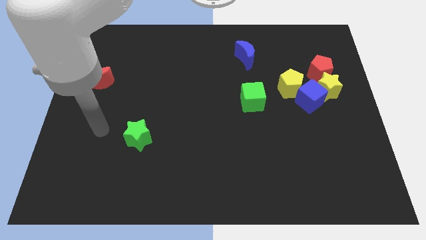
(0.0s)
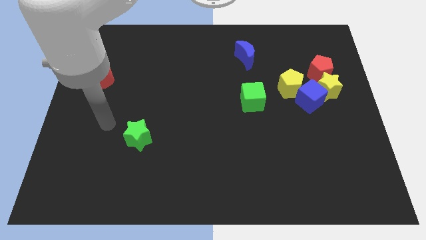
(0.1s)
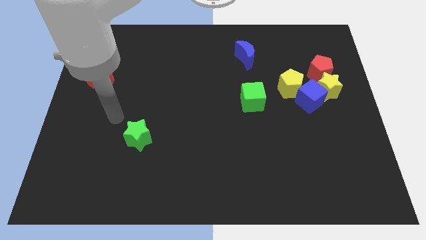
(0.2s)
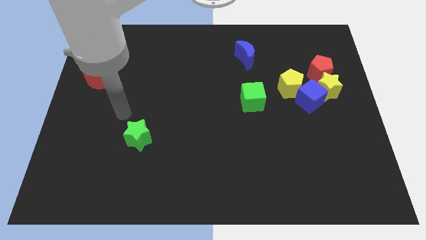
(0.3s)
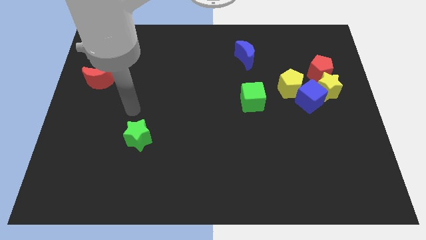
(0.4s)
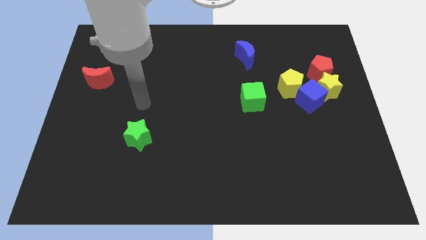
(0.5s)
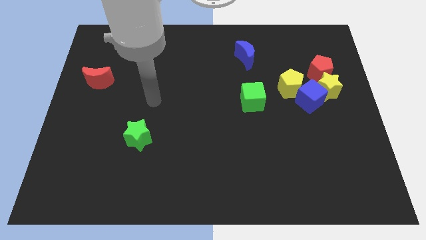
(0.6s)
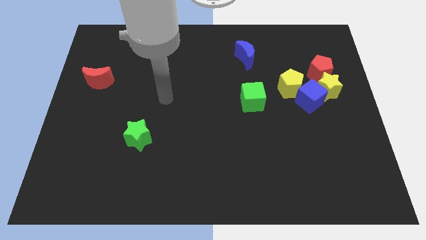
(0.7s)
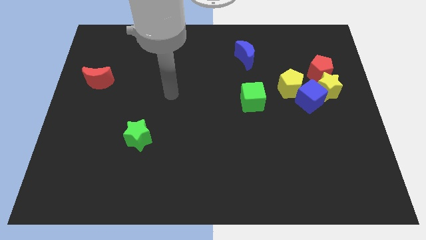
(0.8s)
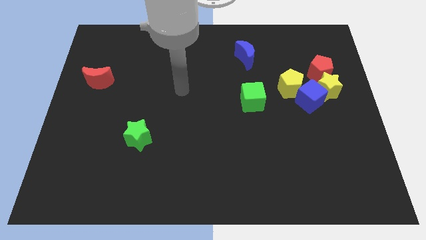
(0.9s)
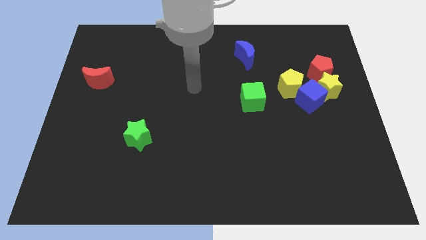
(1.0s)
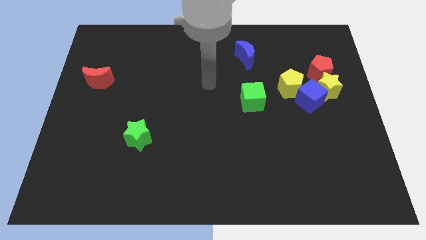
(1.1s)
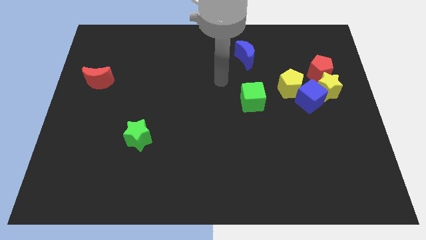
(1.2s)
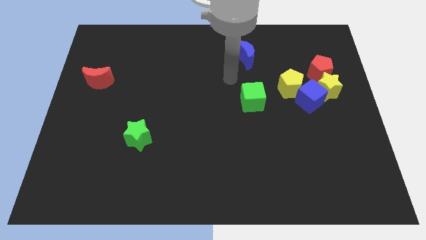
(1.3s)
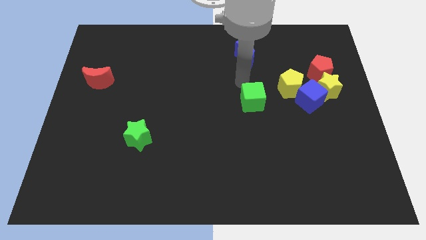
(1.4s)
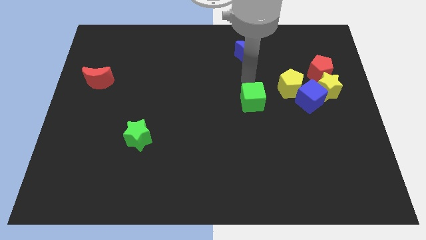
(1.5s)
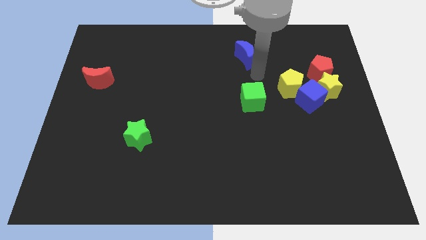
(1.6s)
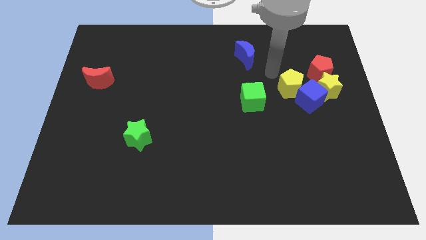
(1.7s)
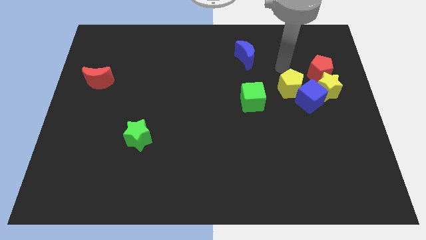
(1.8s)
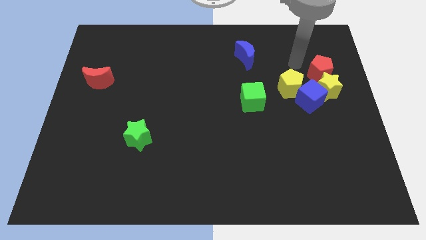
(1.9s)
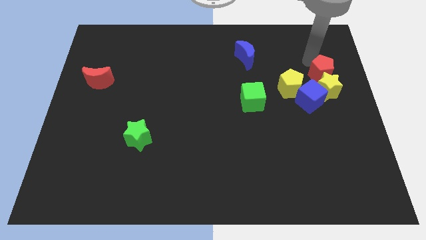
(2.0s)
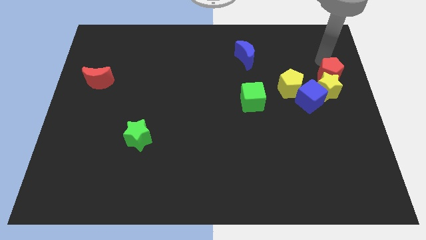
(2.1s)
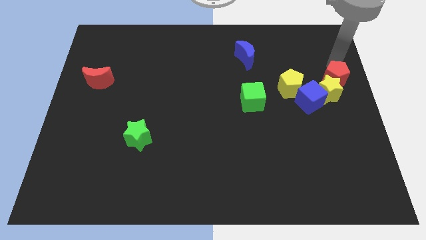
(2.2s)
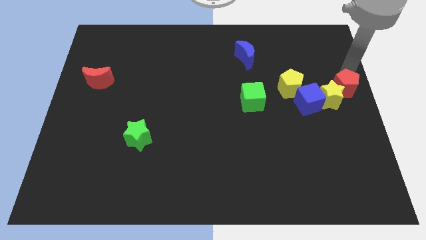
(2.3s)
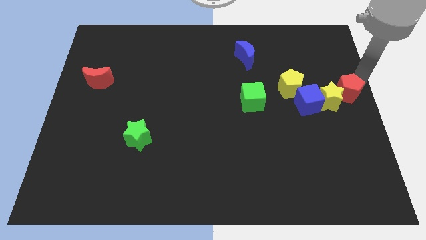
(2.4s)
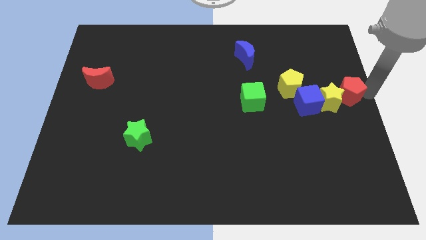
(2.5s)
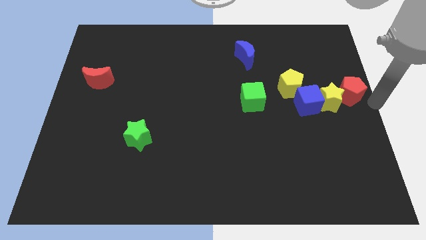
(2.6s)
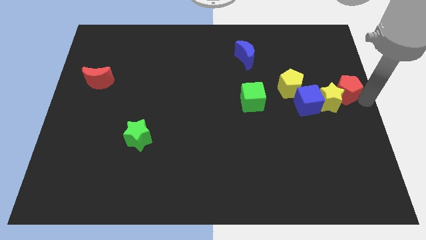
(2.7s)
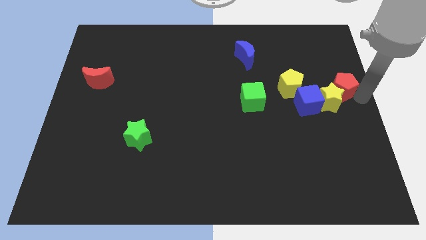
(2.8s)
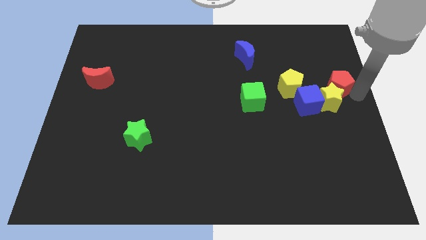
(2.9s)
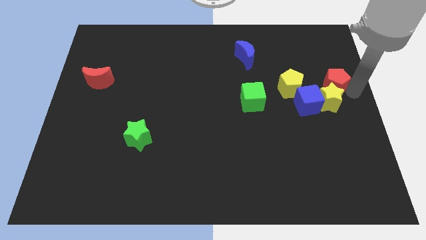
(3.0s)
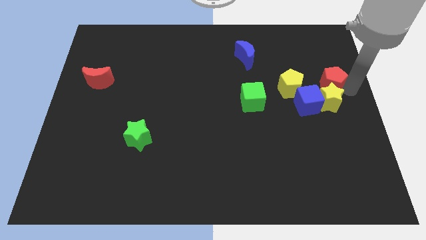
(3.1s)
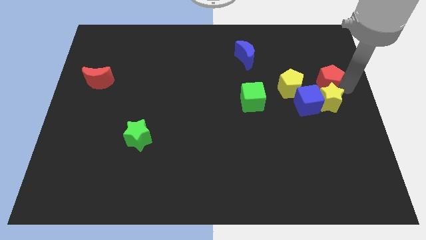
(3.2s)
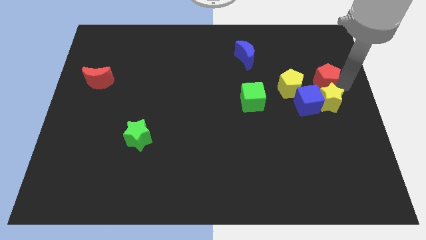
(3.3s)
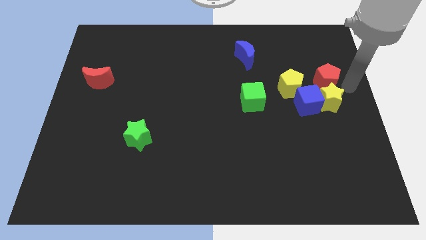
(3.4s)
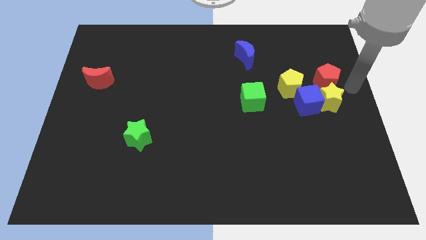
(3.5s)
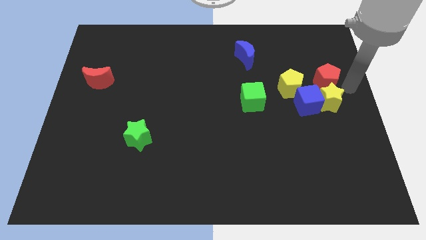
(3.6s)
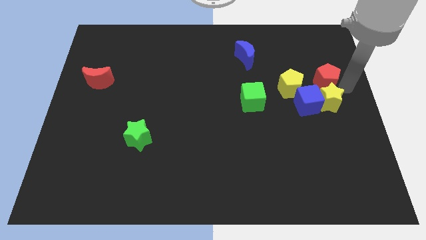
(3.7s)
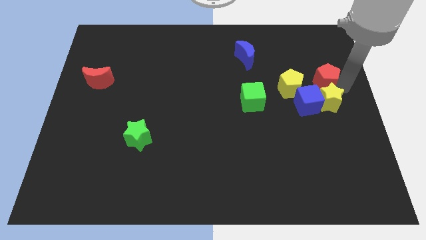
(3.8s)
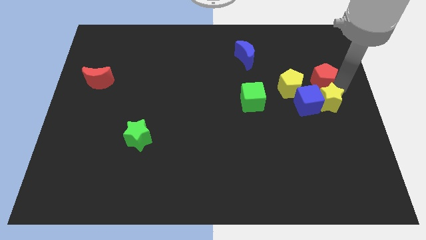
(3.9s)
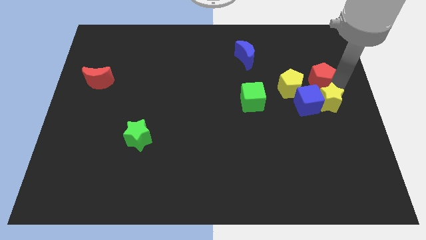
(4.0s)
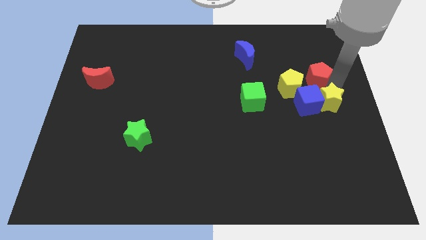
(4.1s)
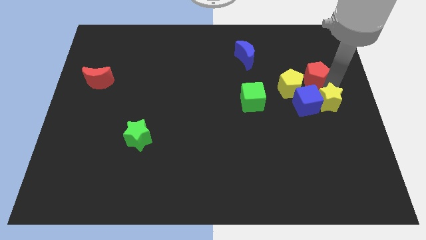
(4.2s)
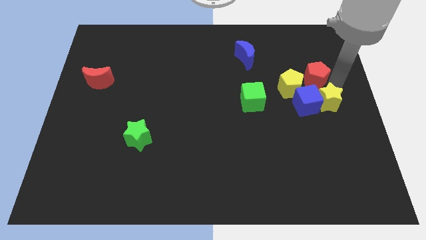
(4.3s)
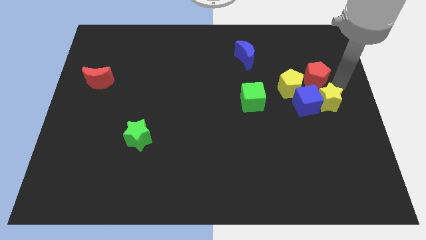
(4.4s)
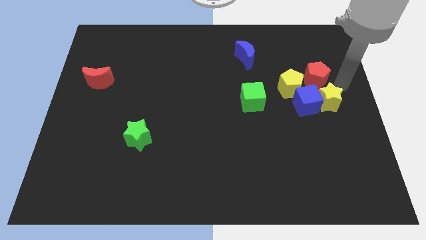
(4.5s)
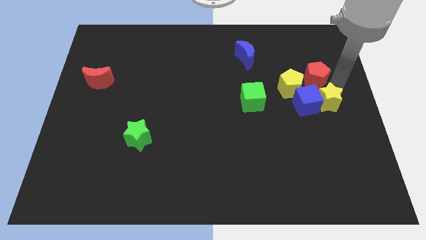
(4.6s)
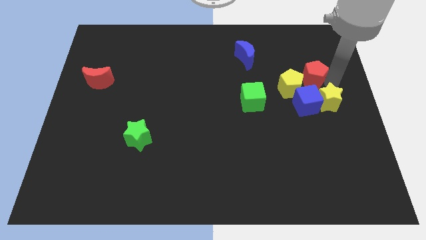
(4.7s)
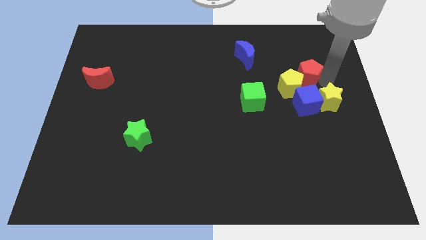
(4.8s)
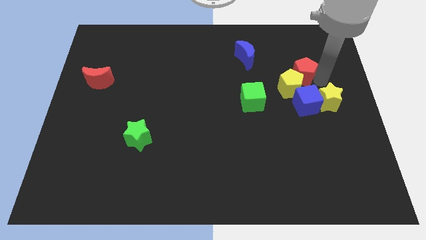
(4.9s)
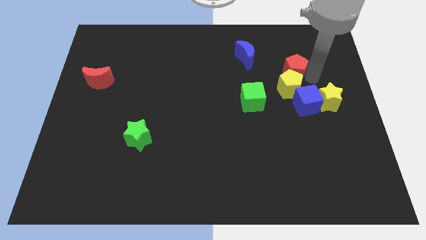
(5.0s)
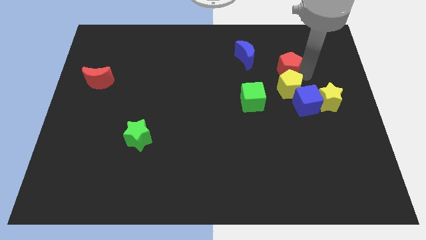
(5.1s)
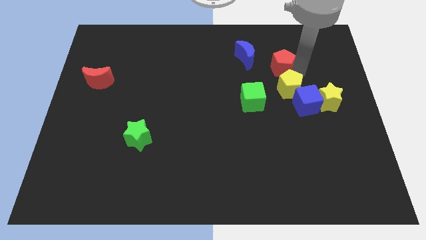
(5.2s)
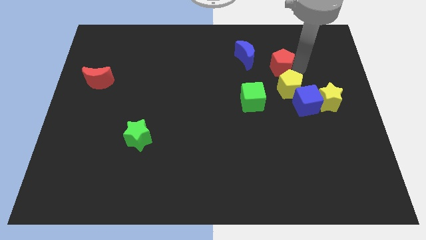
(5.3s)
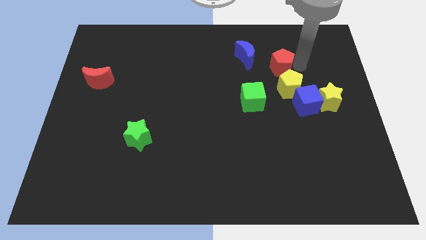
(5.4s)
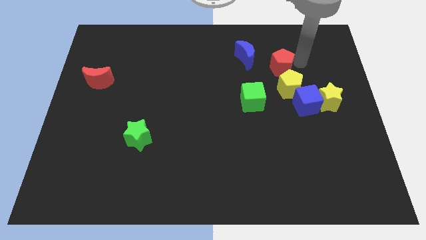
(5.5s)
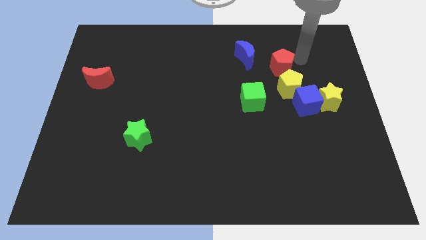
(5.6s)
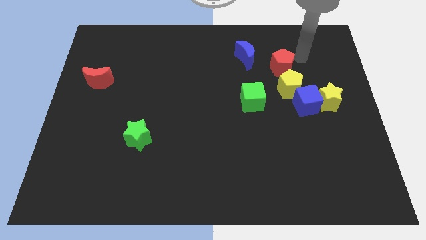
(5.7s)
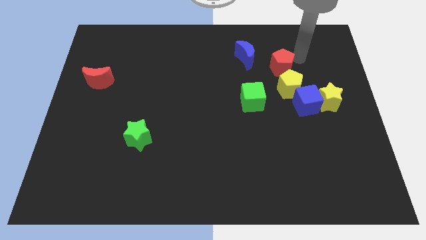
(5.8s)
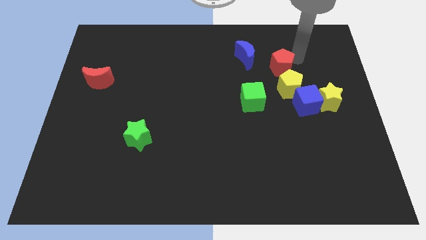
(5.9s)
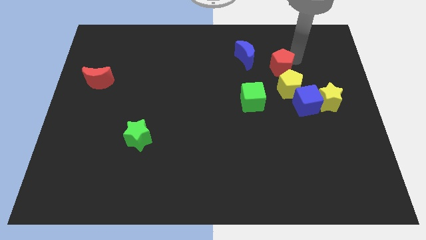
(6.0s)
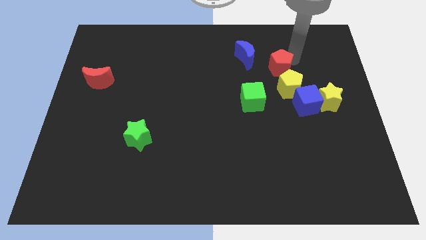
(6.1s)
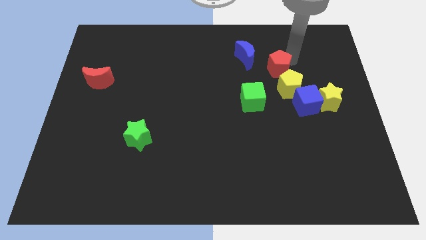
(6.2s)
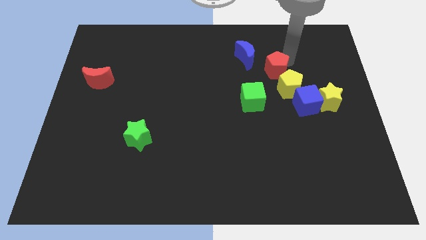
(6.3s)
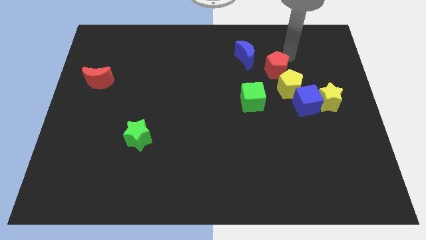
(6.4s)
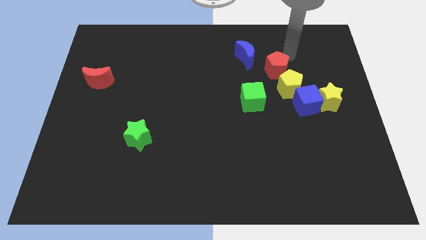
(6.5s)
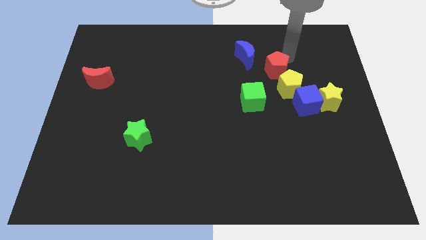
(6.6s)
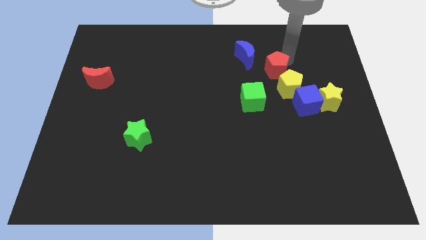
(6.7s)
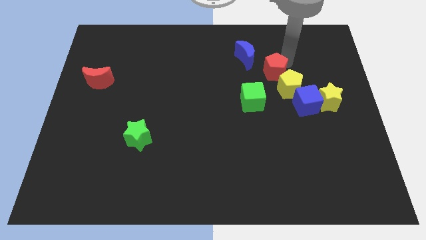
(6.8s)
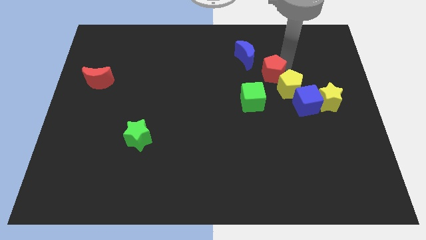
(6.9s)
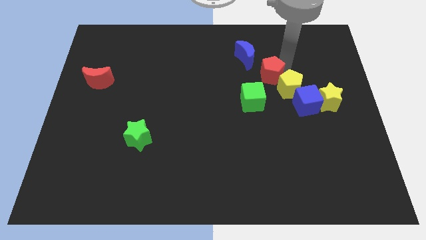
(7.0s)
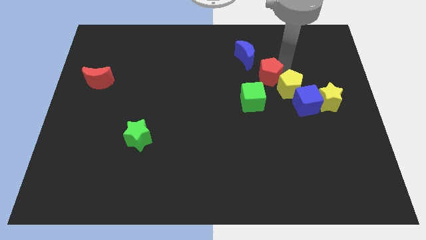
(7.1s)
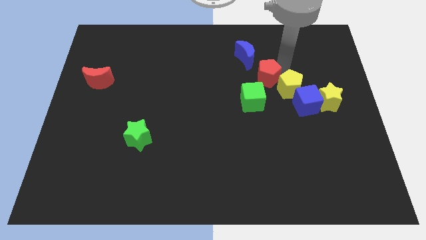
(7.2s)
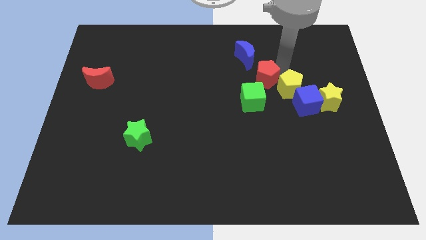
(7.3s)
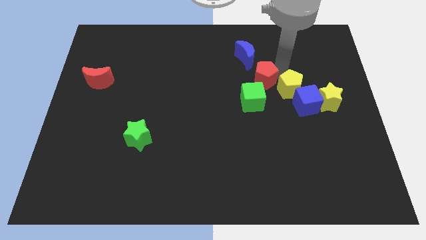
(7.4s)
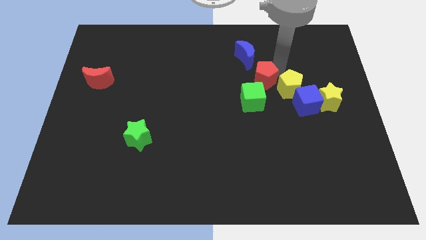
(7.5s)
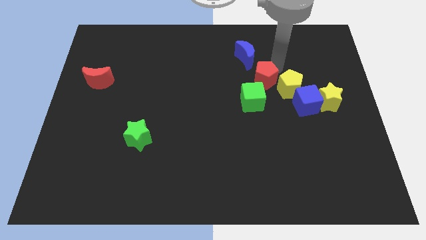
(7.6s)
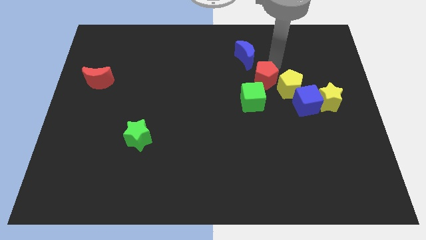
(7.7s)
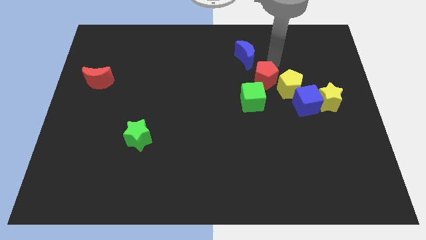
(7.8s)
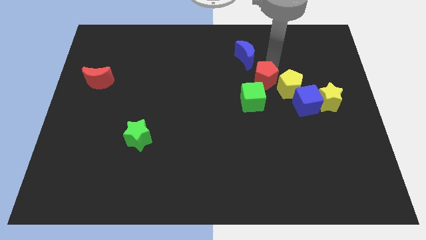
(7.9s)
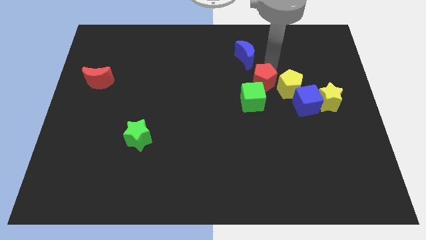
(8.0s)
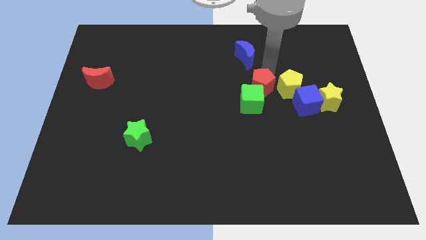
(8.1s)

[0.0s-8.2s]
put the red pentagon towards the green cube
